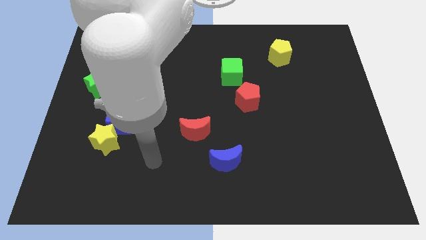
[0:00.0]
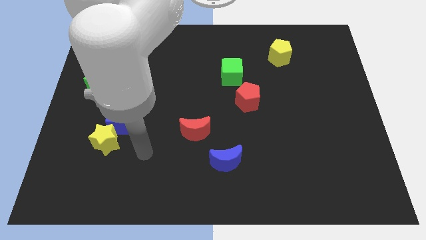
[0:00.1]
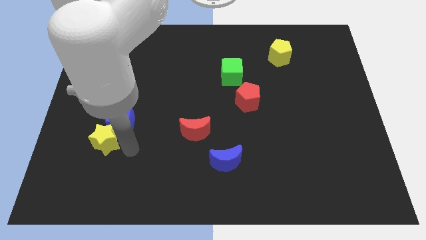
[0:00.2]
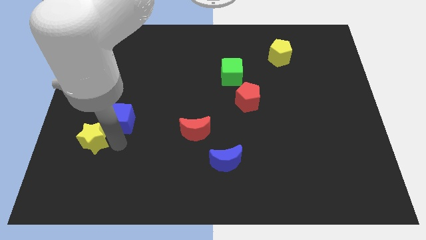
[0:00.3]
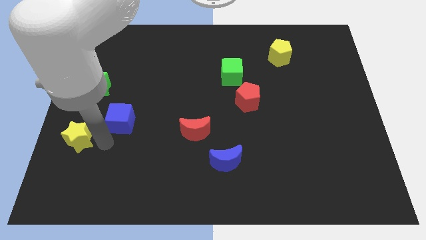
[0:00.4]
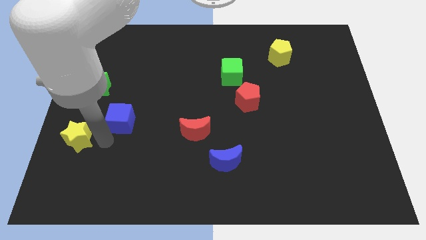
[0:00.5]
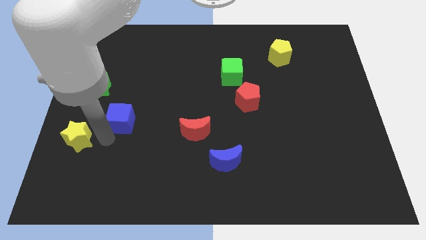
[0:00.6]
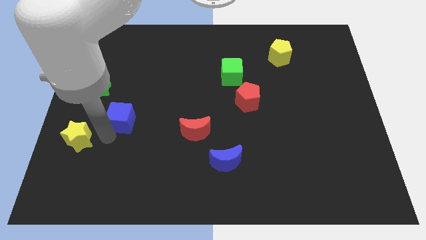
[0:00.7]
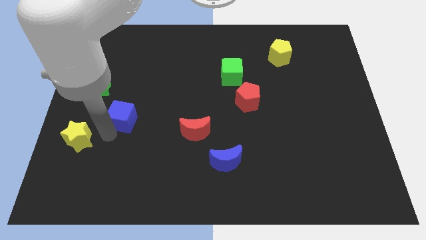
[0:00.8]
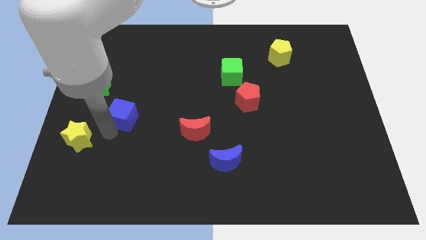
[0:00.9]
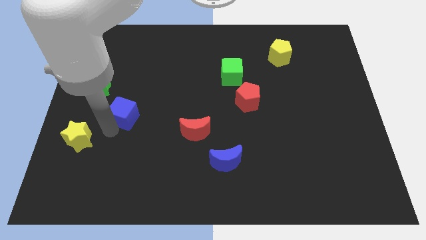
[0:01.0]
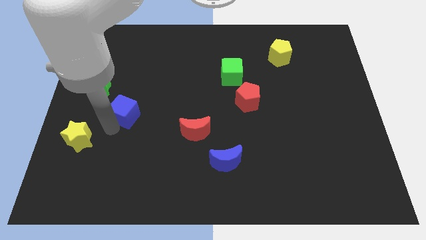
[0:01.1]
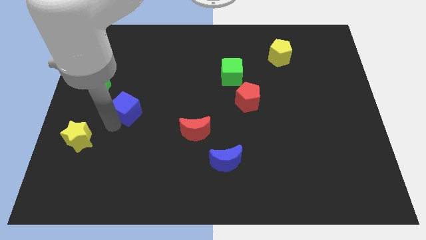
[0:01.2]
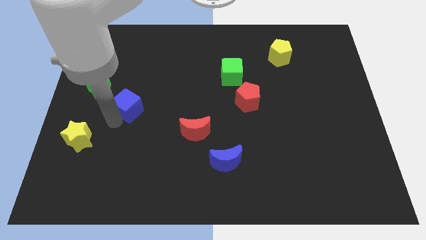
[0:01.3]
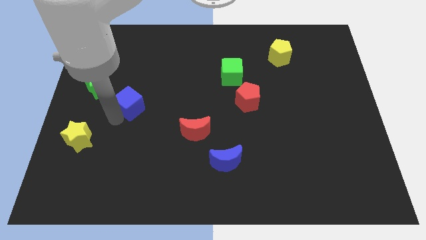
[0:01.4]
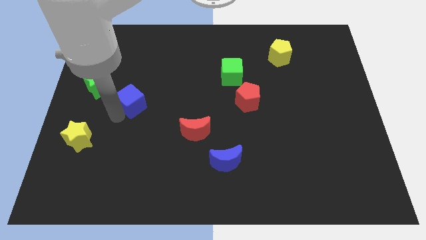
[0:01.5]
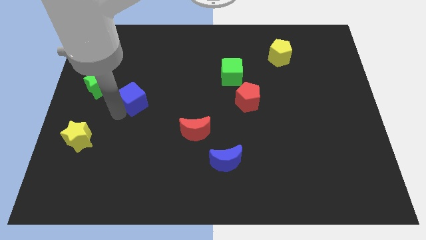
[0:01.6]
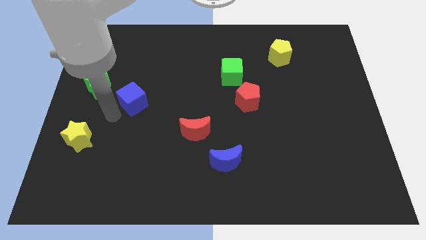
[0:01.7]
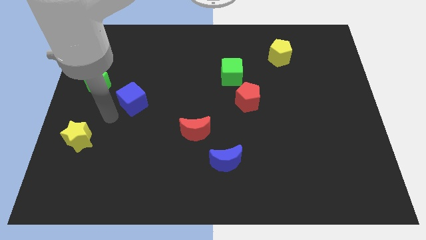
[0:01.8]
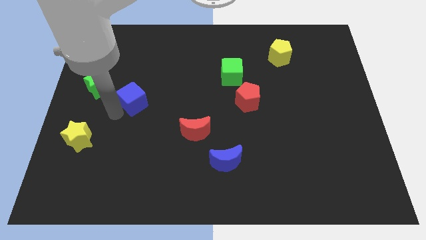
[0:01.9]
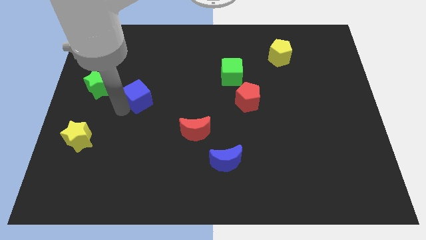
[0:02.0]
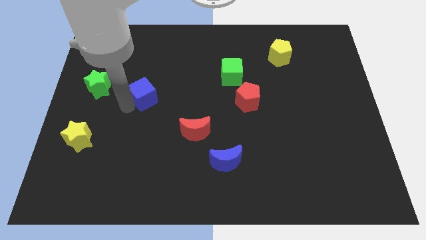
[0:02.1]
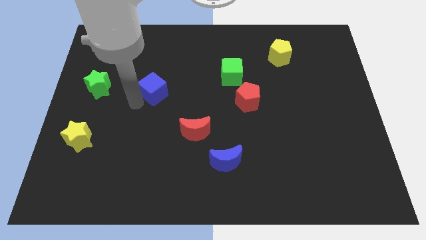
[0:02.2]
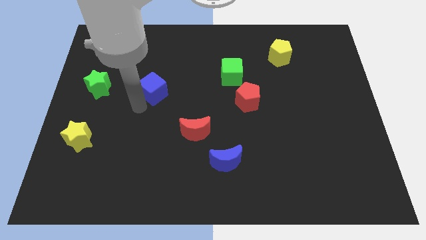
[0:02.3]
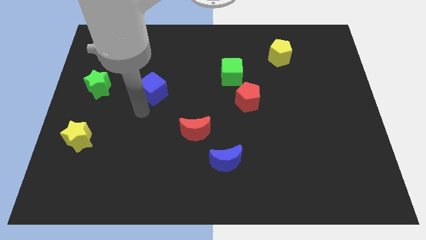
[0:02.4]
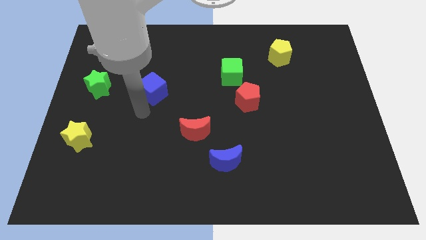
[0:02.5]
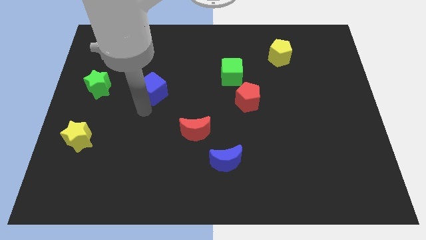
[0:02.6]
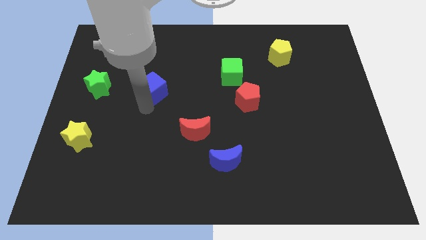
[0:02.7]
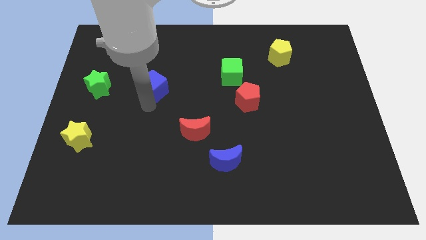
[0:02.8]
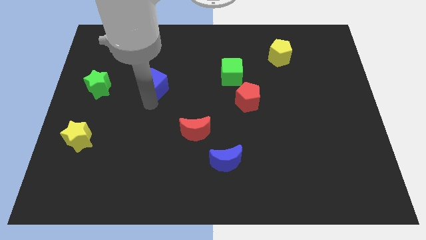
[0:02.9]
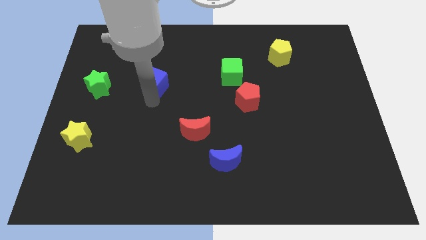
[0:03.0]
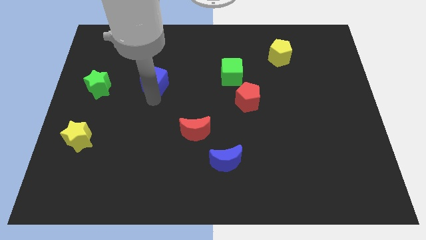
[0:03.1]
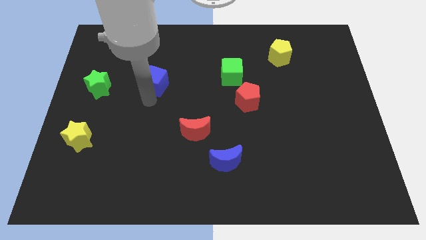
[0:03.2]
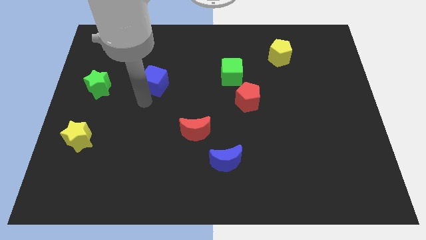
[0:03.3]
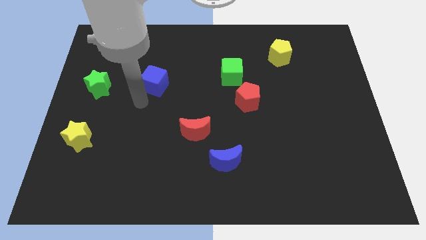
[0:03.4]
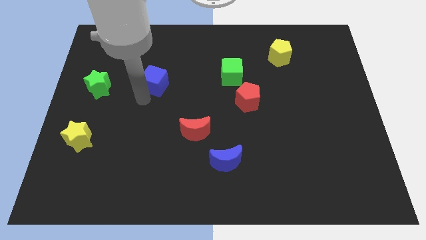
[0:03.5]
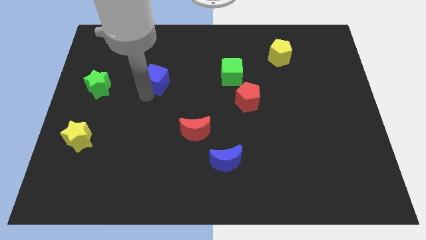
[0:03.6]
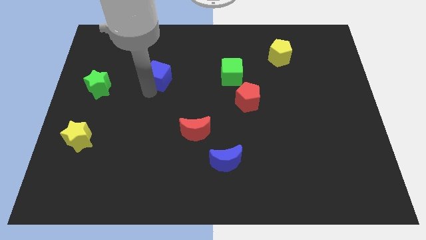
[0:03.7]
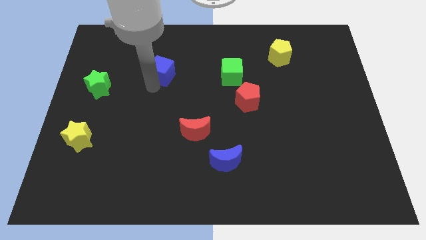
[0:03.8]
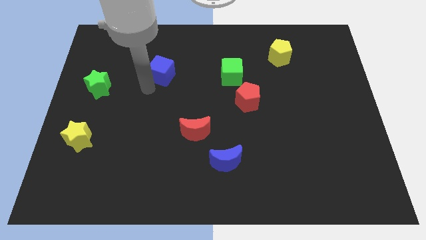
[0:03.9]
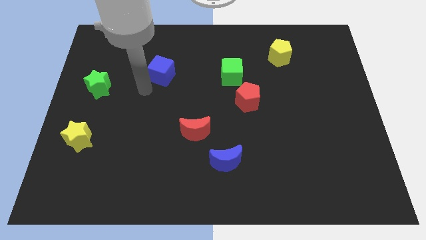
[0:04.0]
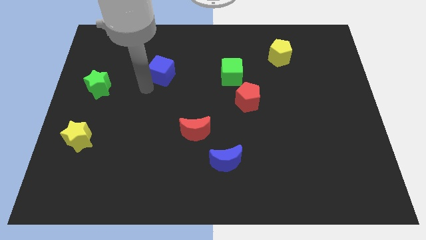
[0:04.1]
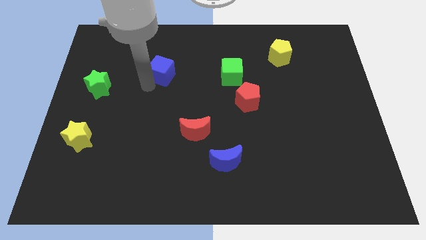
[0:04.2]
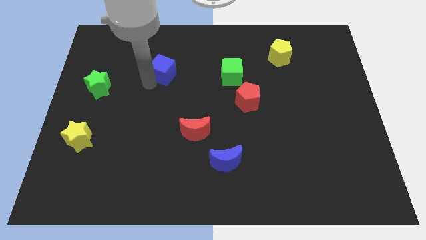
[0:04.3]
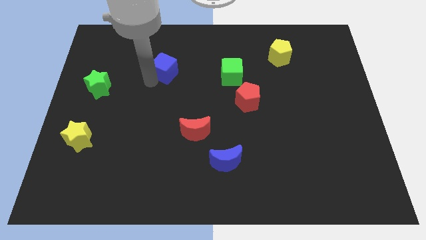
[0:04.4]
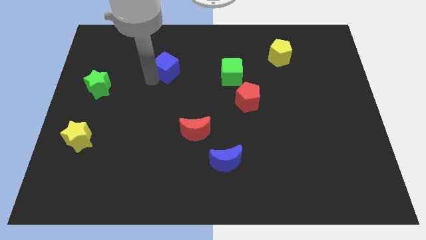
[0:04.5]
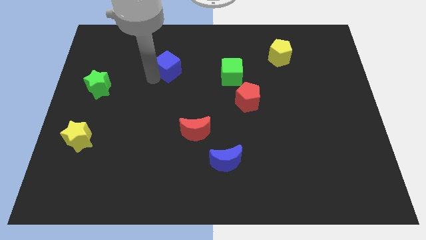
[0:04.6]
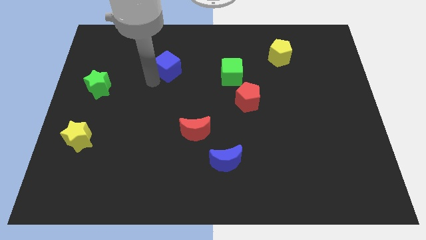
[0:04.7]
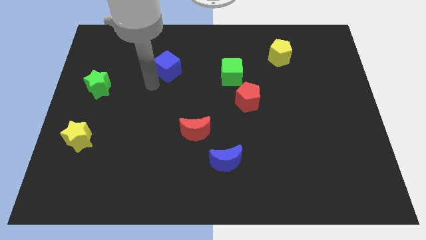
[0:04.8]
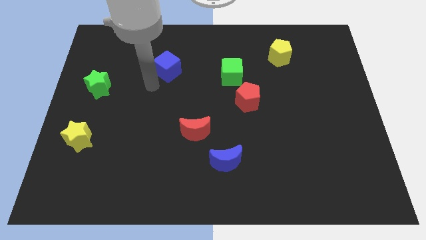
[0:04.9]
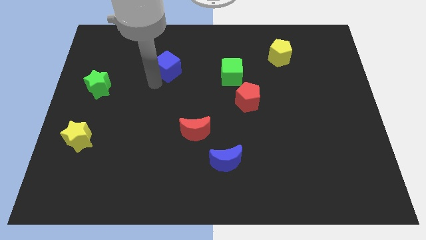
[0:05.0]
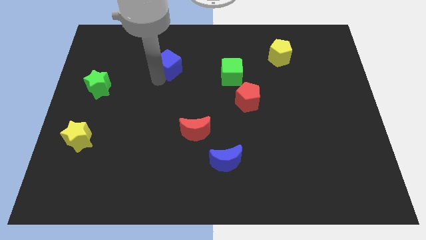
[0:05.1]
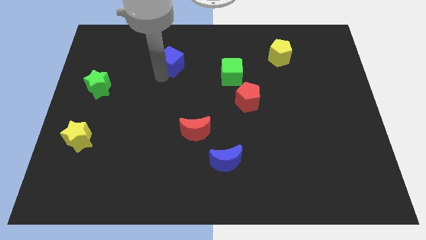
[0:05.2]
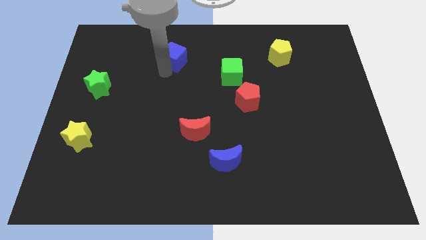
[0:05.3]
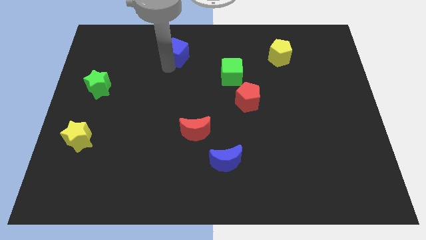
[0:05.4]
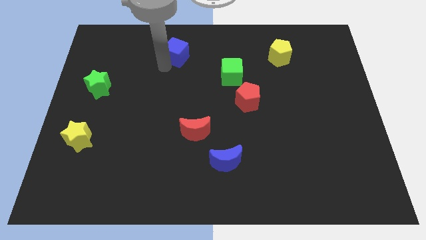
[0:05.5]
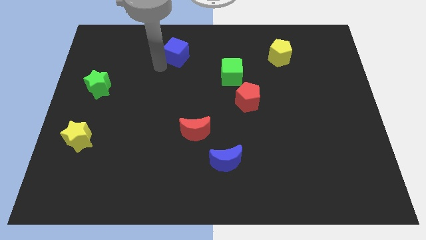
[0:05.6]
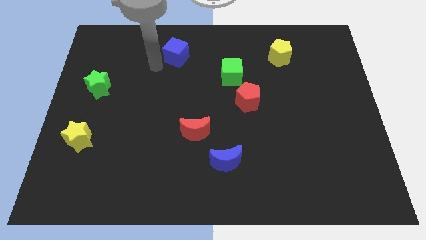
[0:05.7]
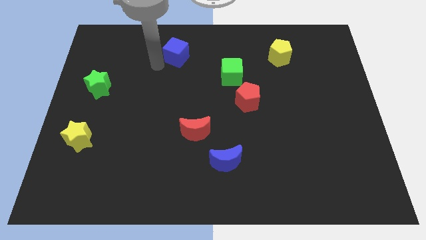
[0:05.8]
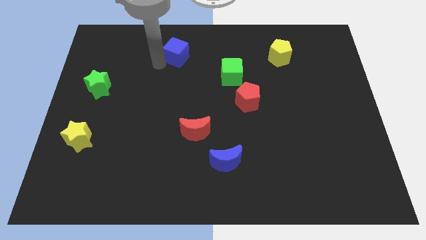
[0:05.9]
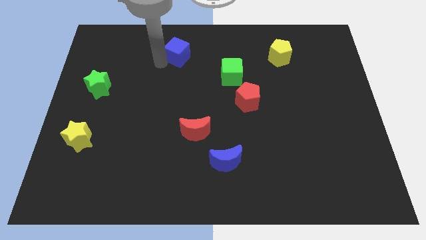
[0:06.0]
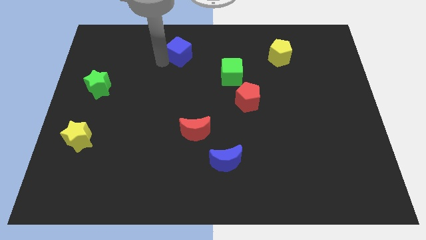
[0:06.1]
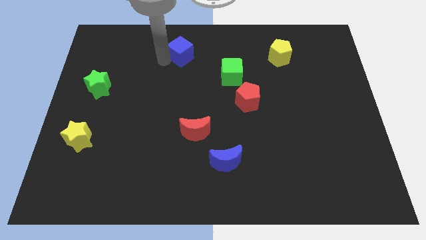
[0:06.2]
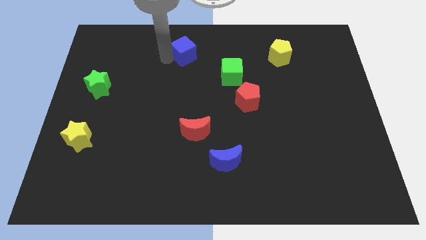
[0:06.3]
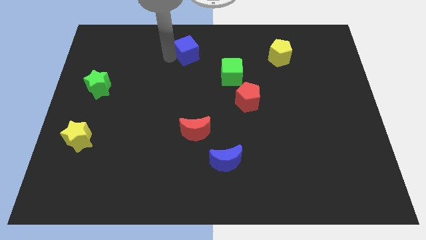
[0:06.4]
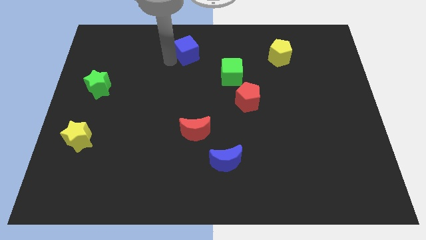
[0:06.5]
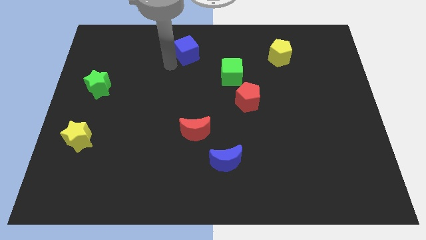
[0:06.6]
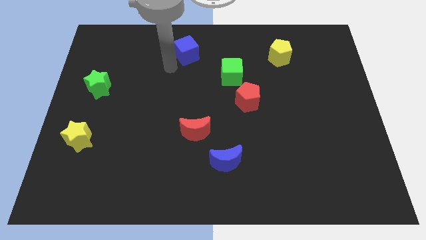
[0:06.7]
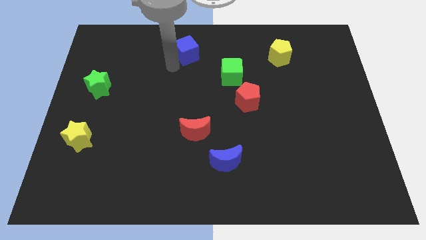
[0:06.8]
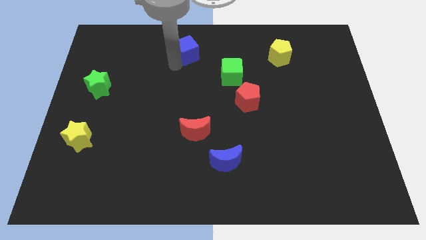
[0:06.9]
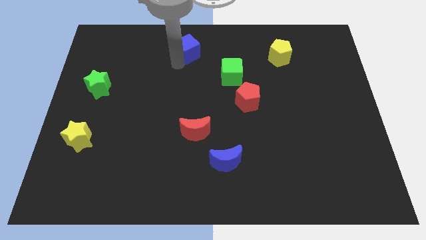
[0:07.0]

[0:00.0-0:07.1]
slide the blue cube to the top
